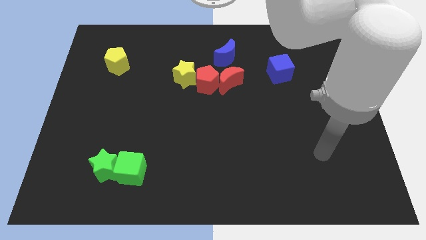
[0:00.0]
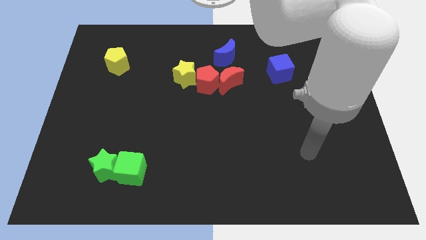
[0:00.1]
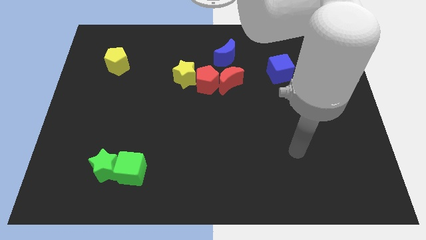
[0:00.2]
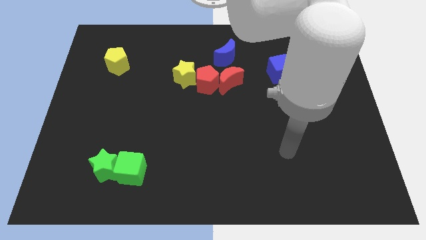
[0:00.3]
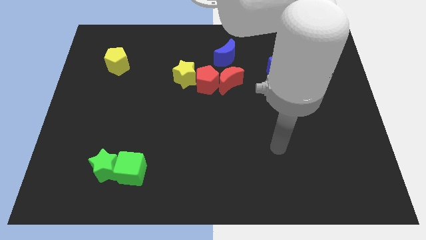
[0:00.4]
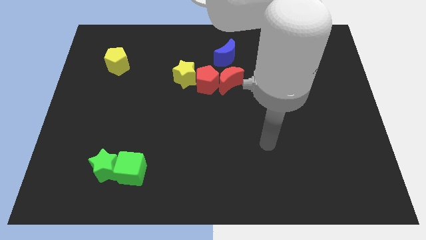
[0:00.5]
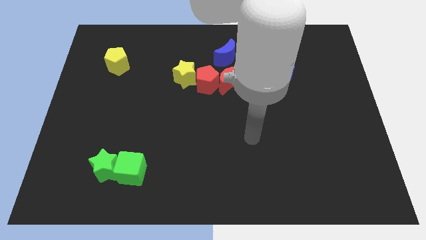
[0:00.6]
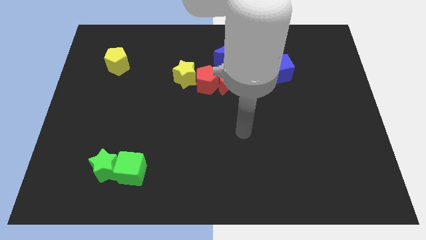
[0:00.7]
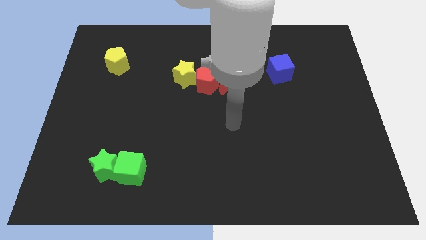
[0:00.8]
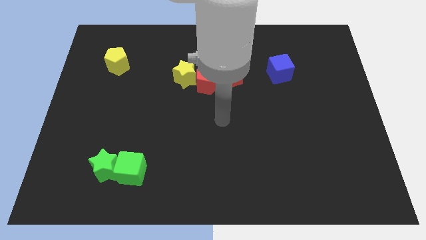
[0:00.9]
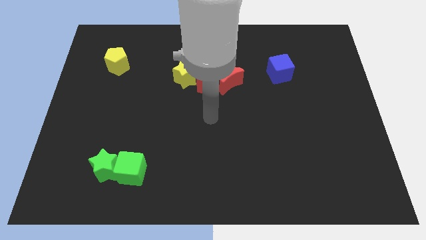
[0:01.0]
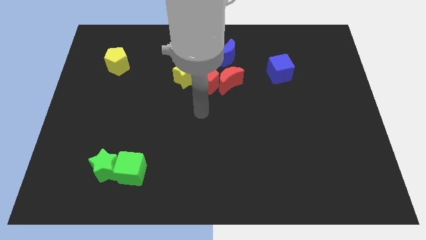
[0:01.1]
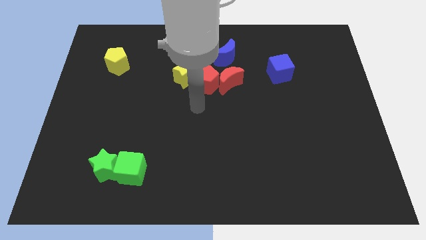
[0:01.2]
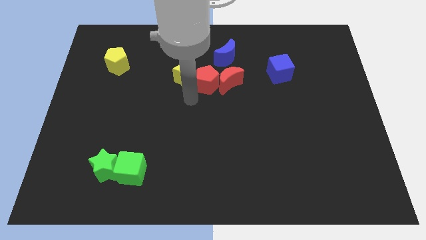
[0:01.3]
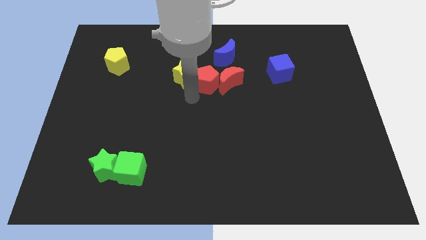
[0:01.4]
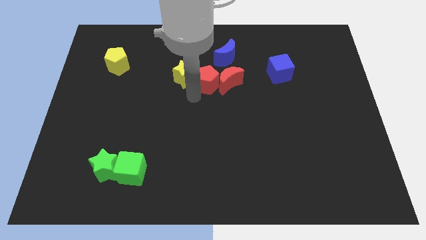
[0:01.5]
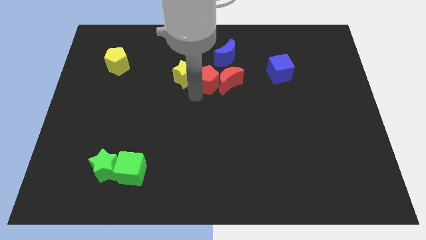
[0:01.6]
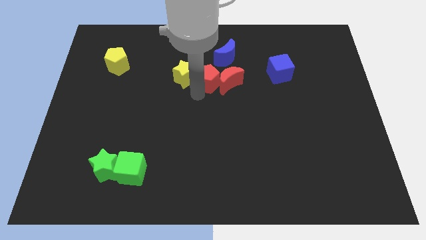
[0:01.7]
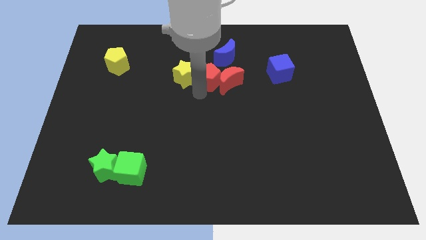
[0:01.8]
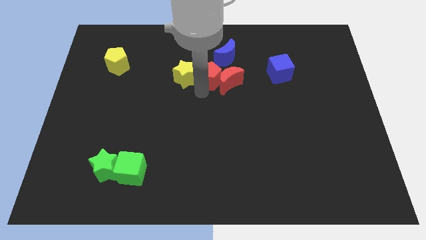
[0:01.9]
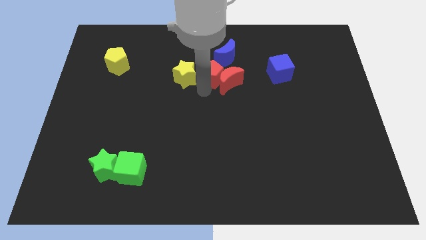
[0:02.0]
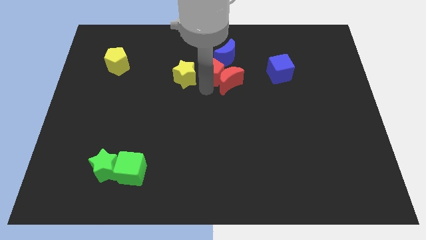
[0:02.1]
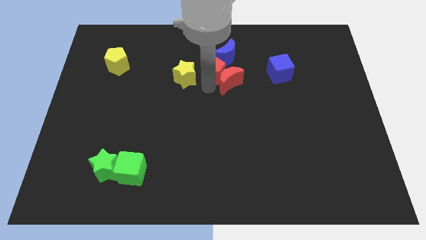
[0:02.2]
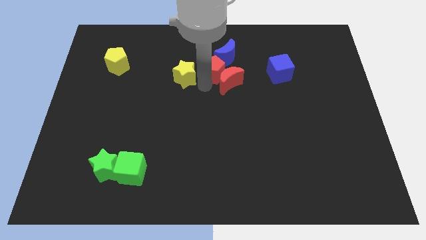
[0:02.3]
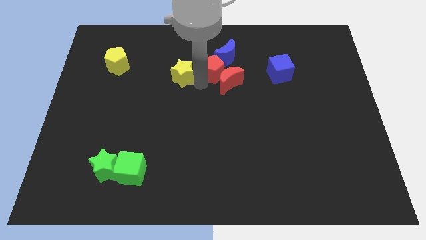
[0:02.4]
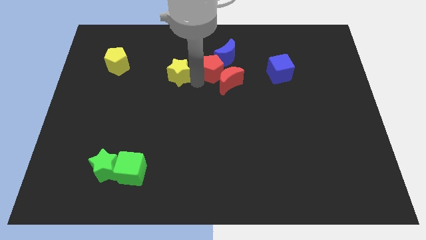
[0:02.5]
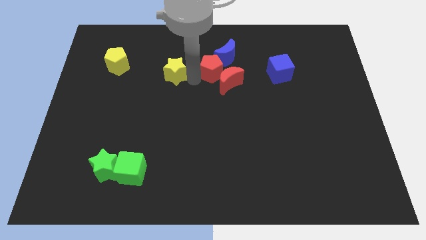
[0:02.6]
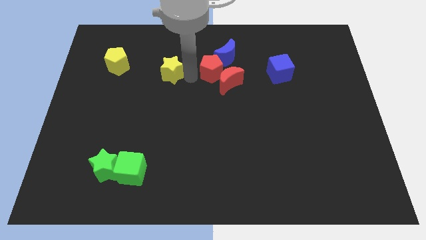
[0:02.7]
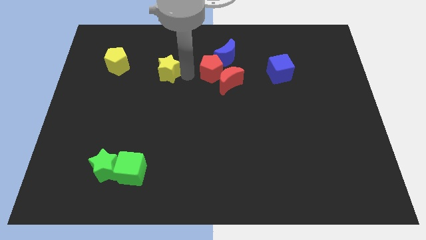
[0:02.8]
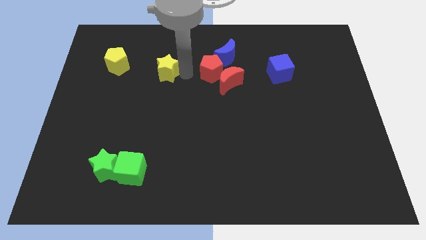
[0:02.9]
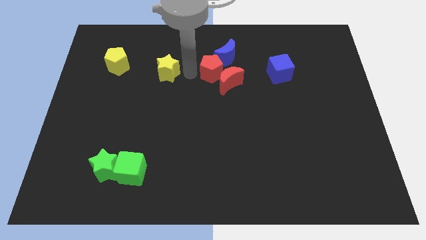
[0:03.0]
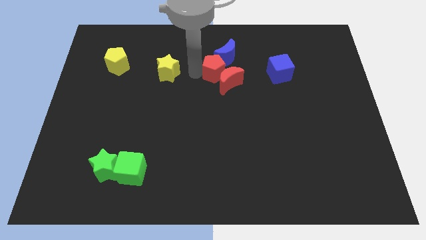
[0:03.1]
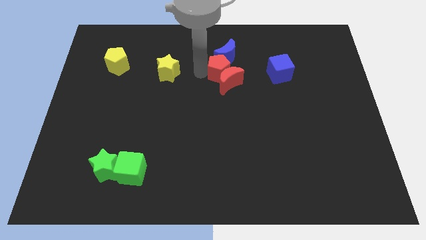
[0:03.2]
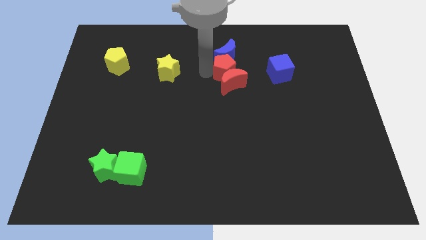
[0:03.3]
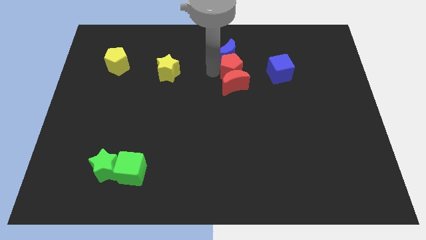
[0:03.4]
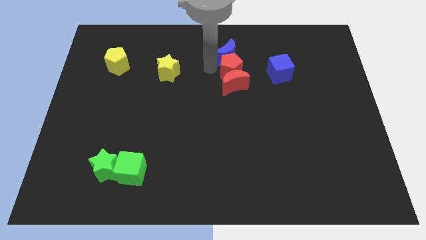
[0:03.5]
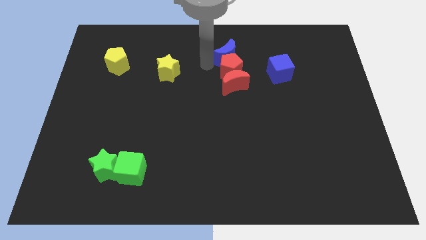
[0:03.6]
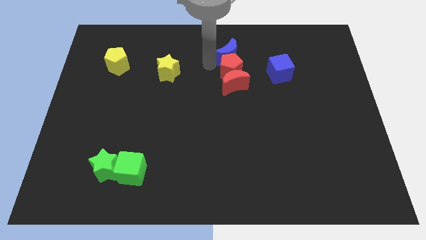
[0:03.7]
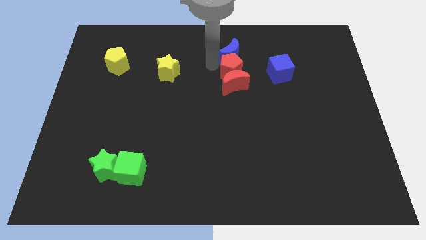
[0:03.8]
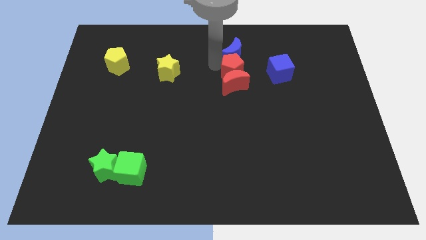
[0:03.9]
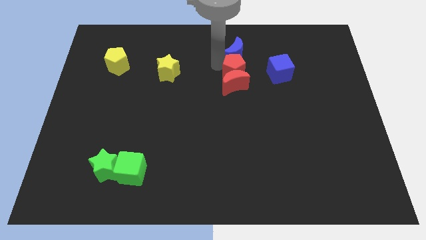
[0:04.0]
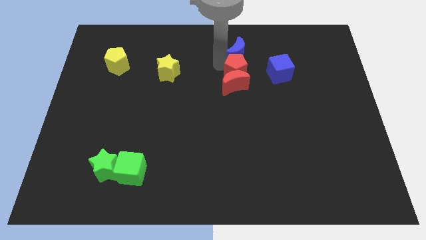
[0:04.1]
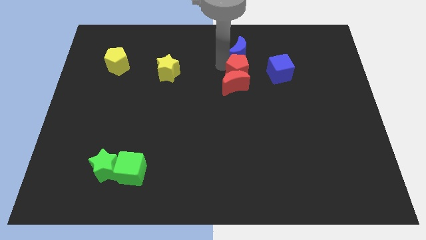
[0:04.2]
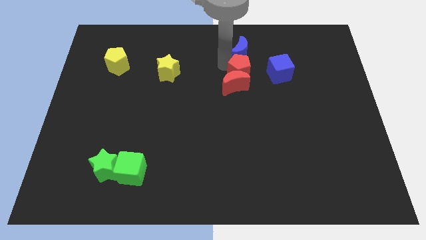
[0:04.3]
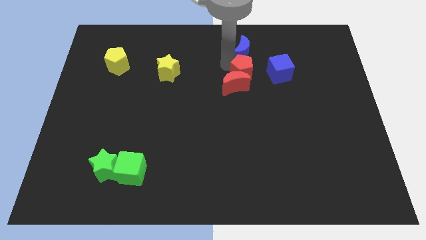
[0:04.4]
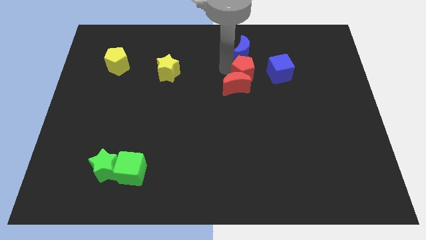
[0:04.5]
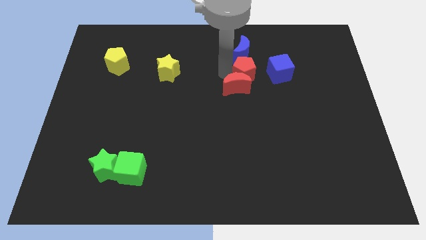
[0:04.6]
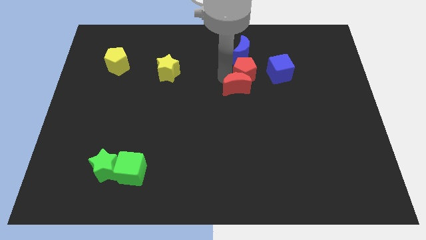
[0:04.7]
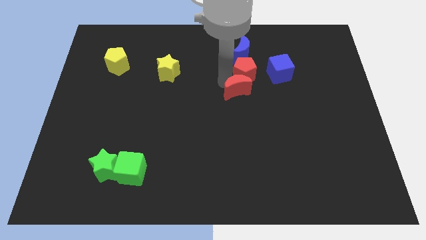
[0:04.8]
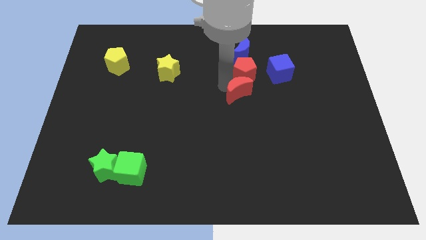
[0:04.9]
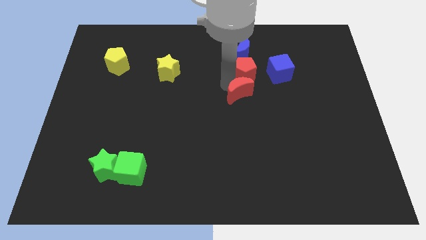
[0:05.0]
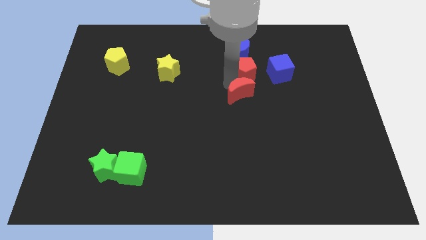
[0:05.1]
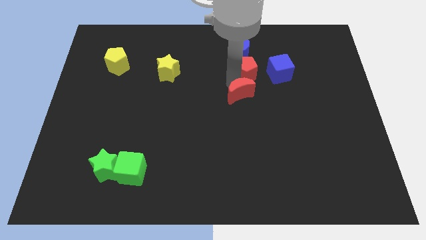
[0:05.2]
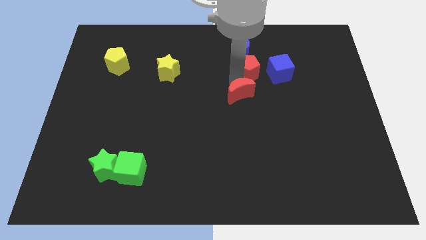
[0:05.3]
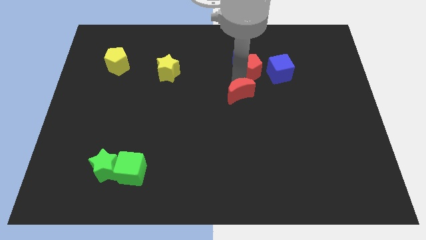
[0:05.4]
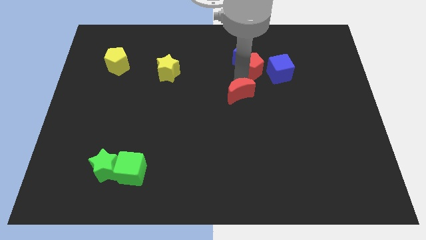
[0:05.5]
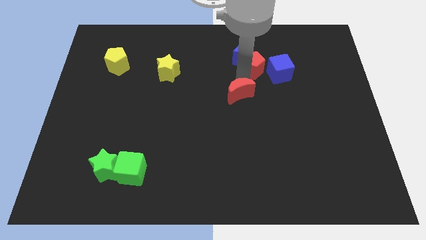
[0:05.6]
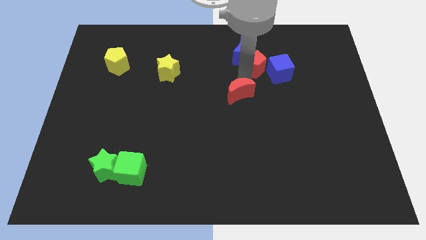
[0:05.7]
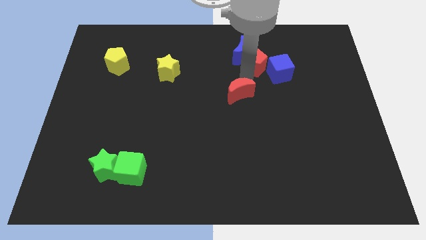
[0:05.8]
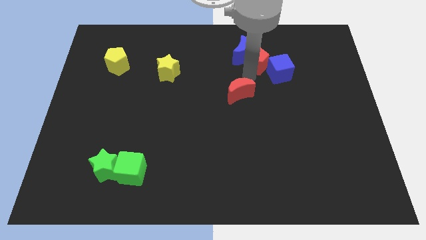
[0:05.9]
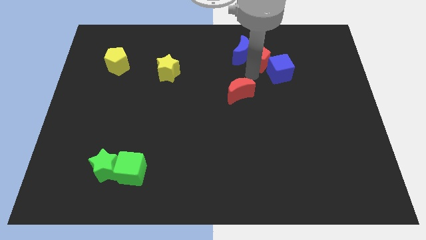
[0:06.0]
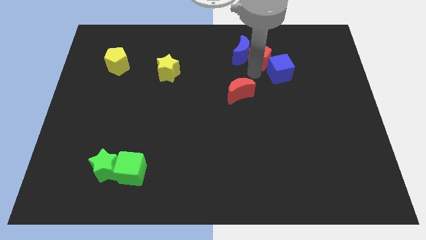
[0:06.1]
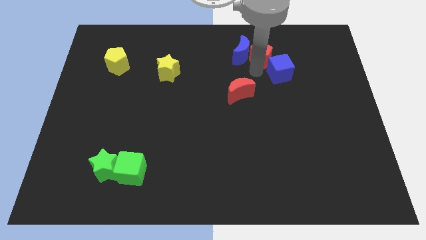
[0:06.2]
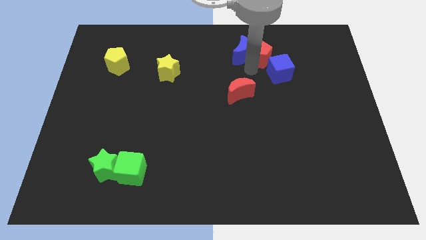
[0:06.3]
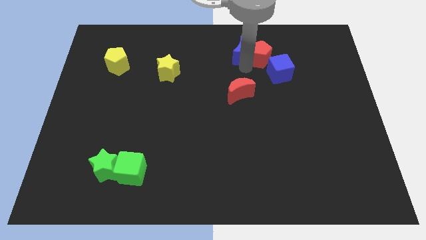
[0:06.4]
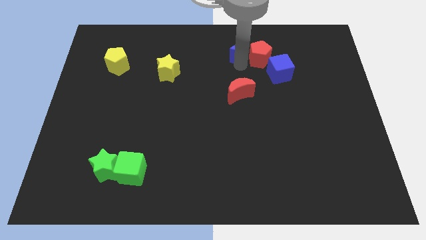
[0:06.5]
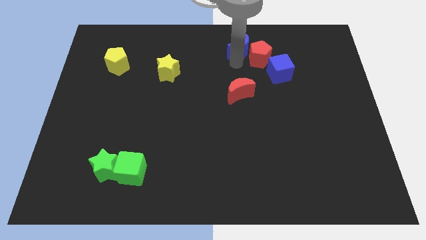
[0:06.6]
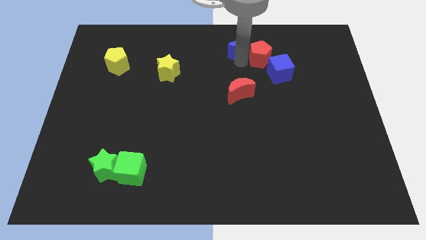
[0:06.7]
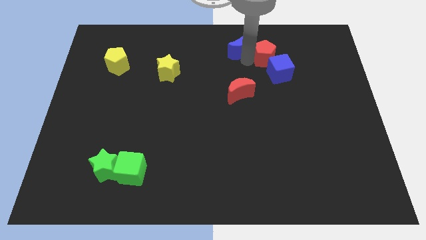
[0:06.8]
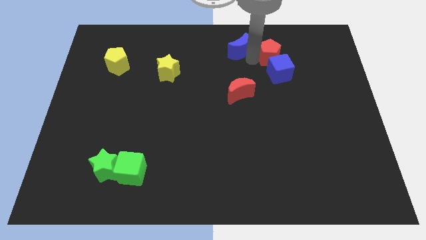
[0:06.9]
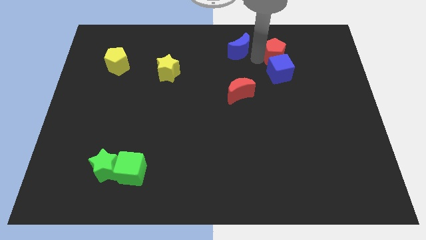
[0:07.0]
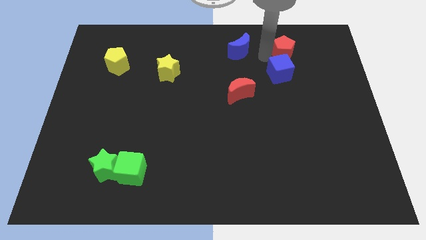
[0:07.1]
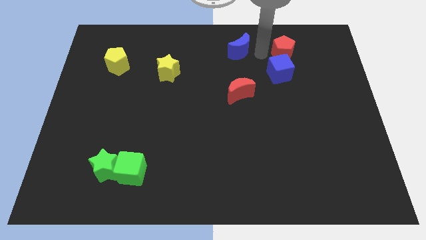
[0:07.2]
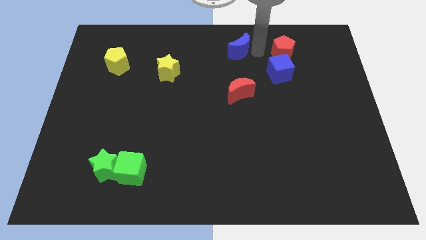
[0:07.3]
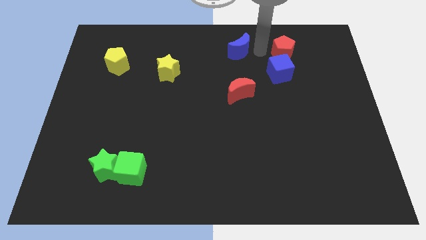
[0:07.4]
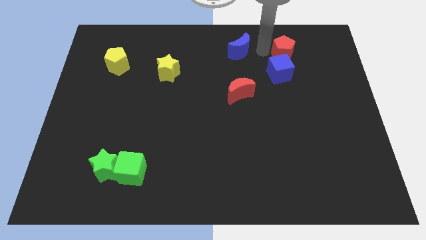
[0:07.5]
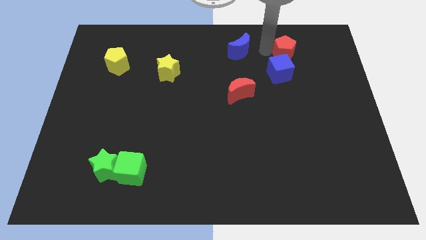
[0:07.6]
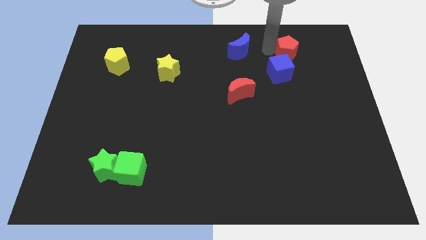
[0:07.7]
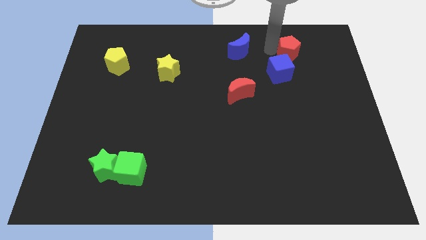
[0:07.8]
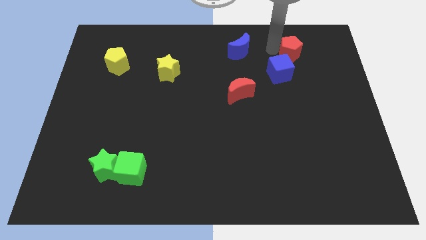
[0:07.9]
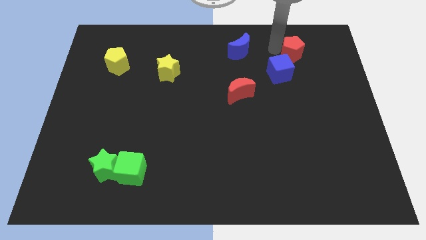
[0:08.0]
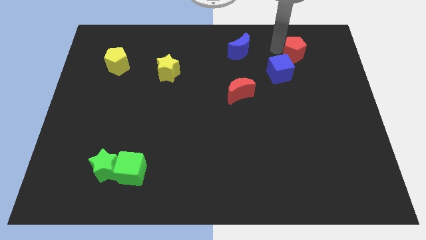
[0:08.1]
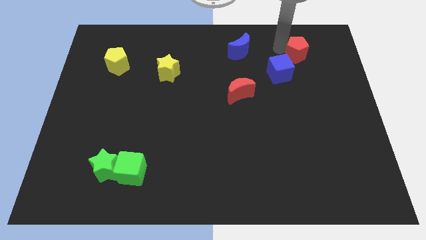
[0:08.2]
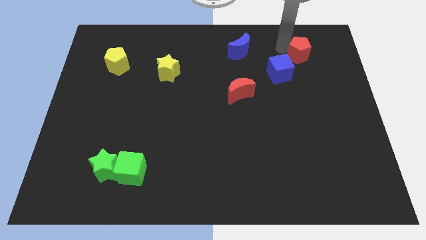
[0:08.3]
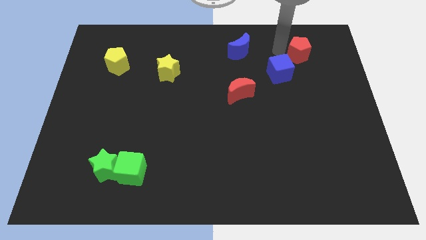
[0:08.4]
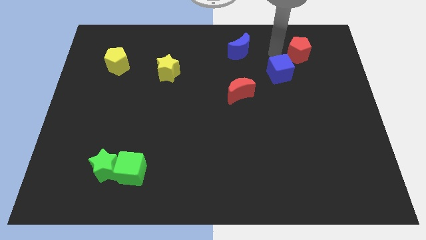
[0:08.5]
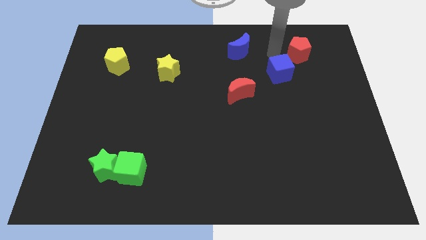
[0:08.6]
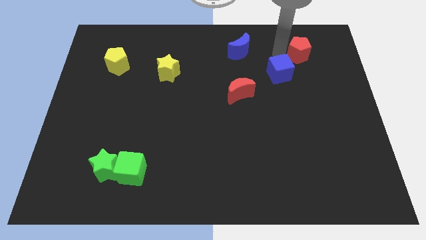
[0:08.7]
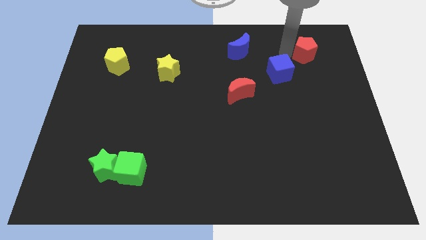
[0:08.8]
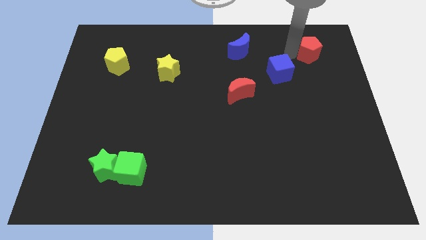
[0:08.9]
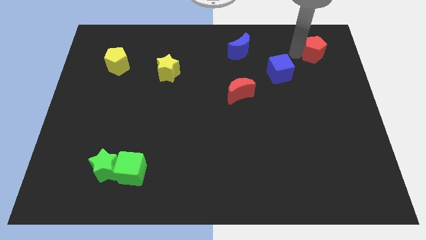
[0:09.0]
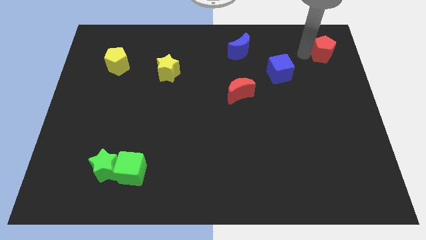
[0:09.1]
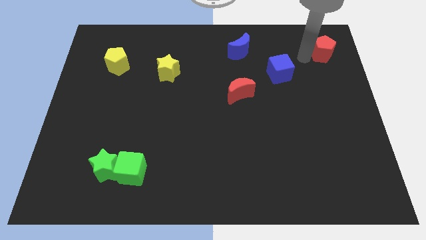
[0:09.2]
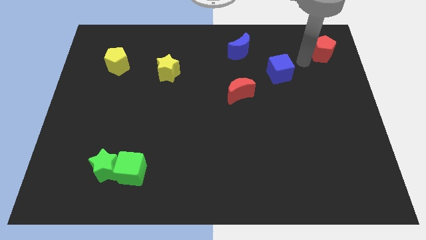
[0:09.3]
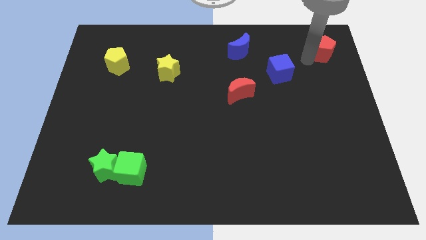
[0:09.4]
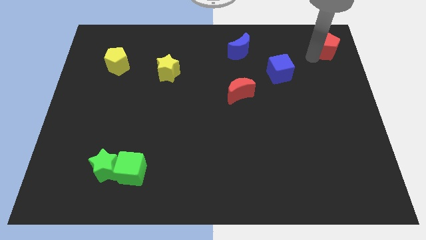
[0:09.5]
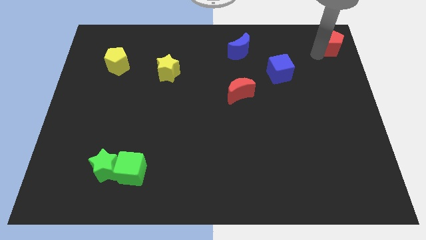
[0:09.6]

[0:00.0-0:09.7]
slide the red pentagon to the top right corner
